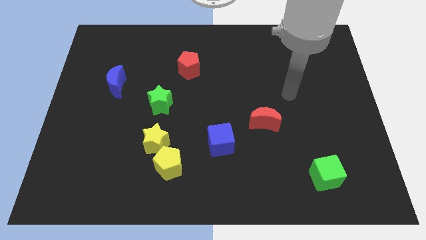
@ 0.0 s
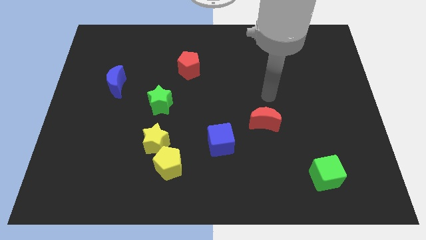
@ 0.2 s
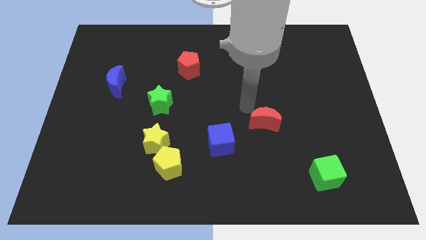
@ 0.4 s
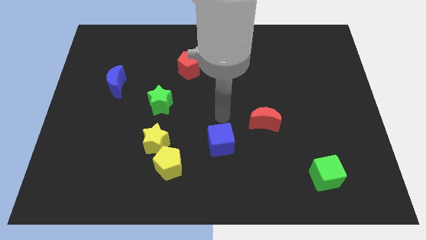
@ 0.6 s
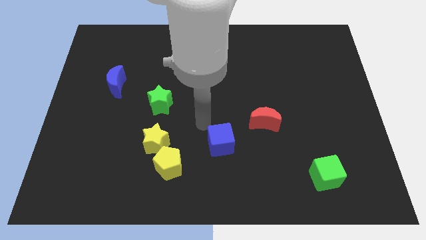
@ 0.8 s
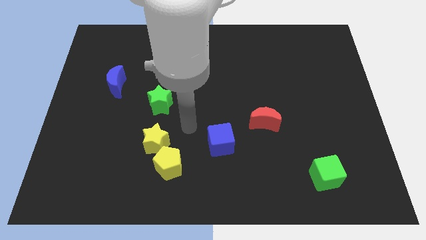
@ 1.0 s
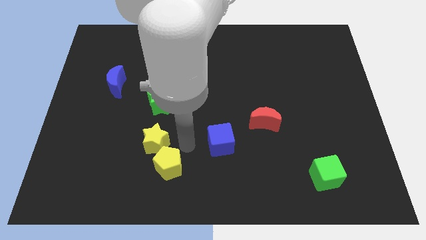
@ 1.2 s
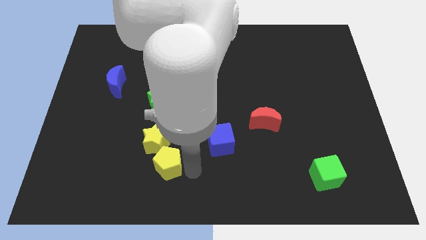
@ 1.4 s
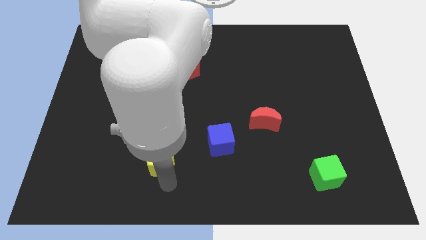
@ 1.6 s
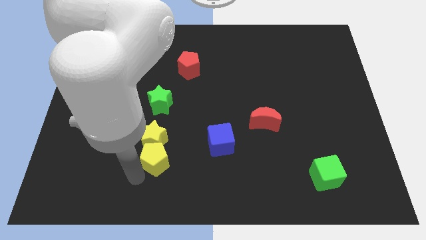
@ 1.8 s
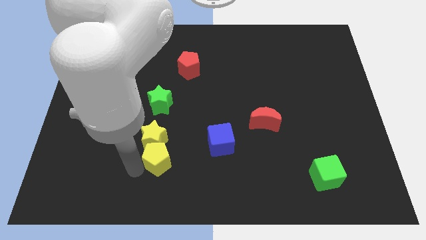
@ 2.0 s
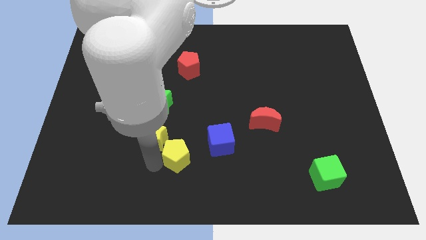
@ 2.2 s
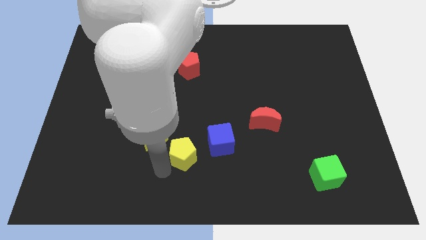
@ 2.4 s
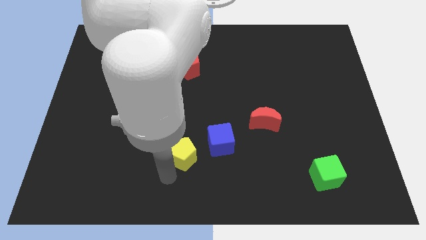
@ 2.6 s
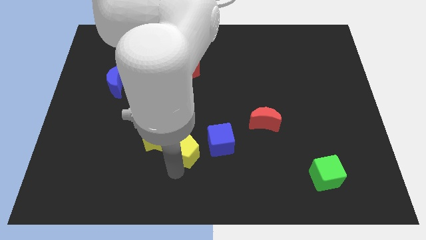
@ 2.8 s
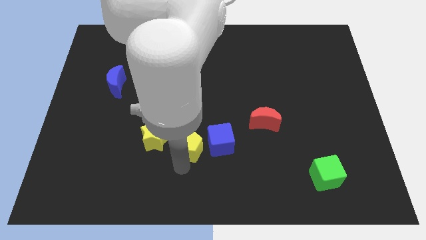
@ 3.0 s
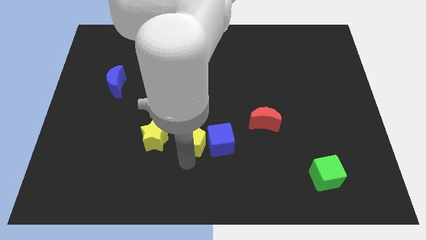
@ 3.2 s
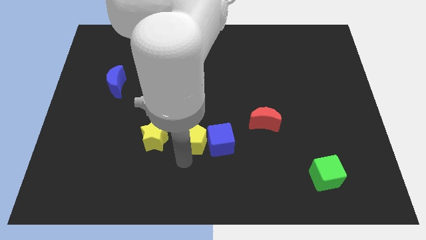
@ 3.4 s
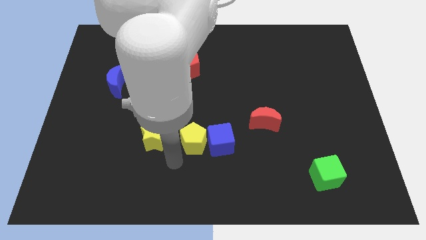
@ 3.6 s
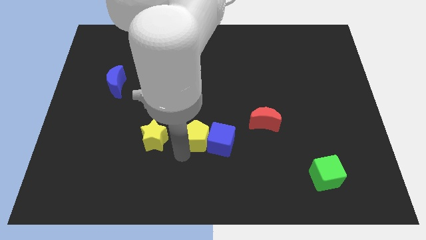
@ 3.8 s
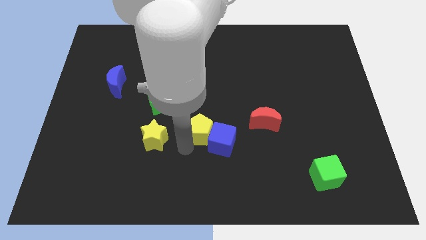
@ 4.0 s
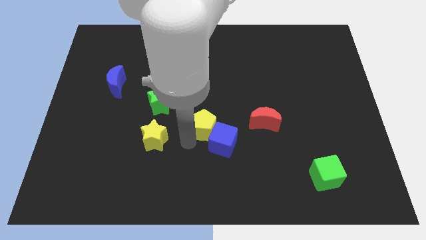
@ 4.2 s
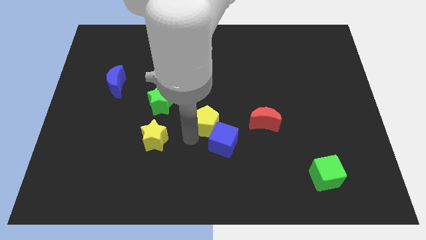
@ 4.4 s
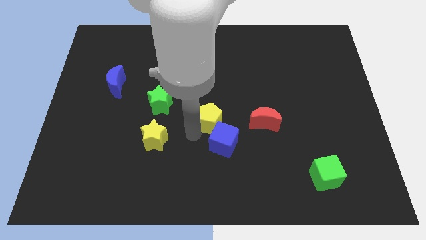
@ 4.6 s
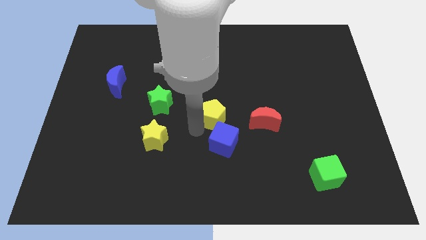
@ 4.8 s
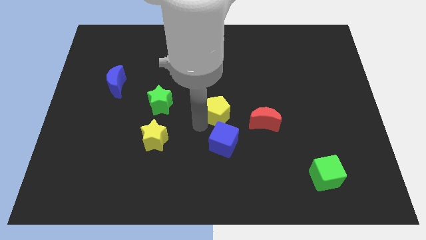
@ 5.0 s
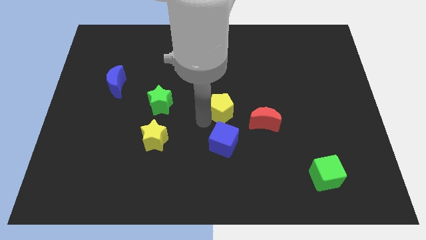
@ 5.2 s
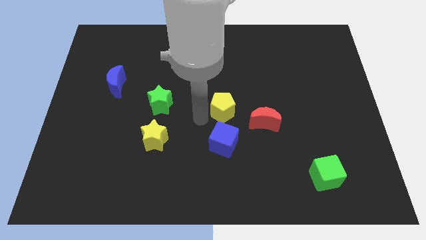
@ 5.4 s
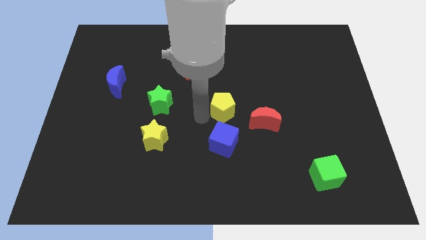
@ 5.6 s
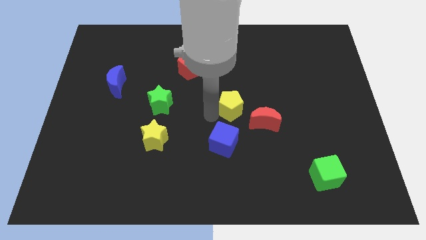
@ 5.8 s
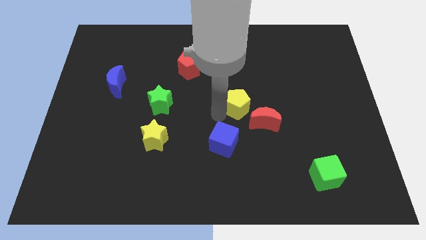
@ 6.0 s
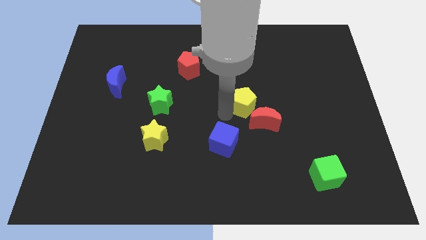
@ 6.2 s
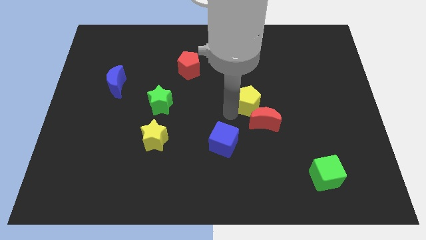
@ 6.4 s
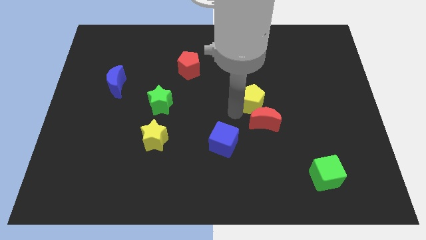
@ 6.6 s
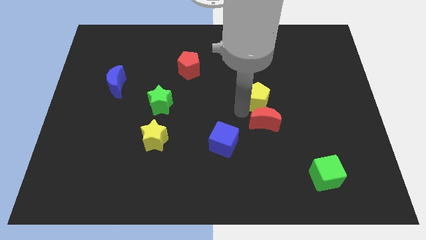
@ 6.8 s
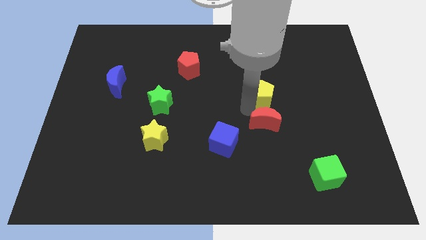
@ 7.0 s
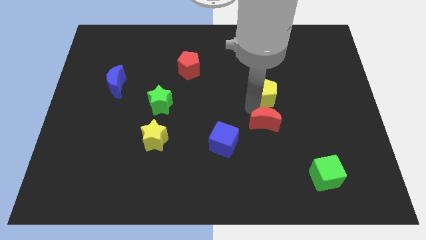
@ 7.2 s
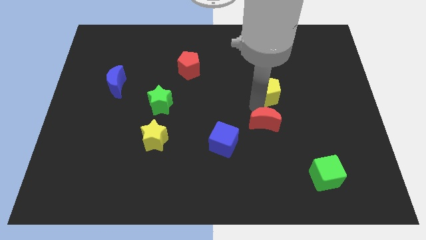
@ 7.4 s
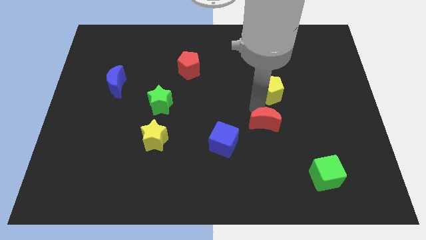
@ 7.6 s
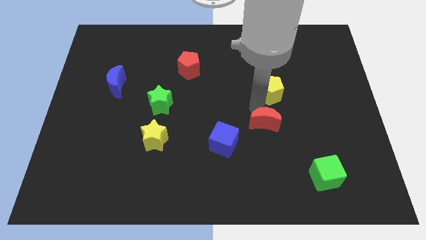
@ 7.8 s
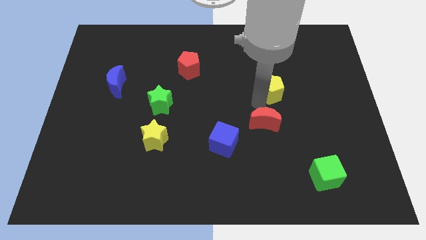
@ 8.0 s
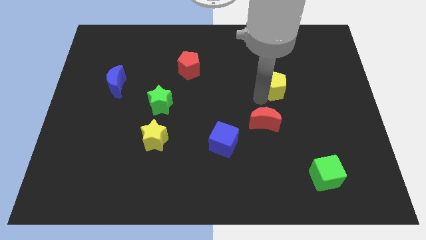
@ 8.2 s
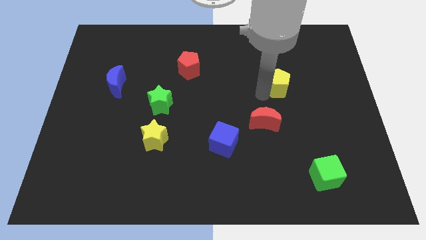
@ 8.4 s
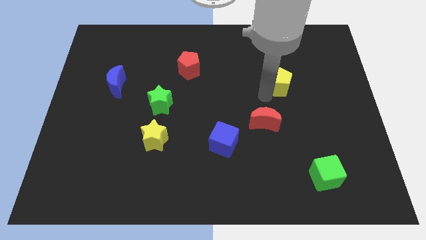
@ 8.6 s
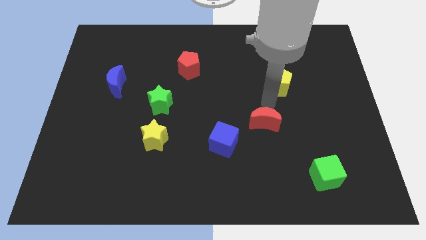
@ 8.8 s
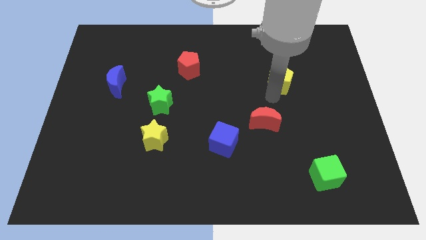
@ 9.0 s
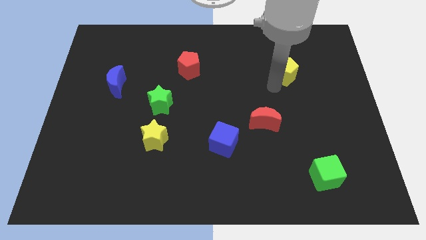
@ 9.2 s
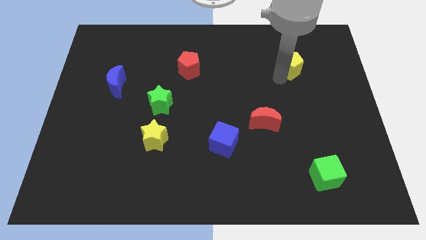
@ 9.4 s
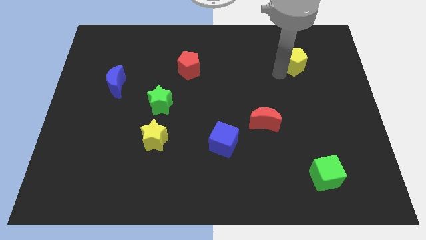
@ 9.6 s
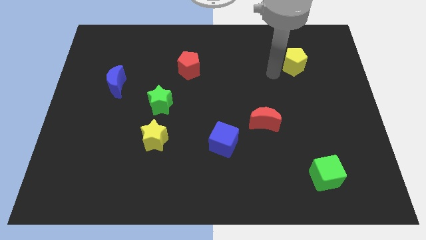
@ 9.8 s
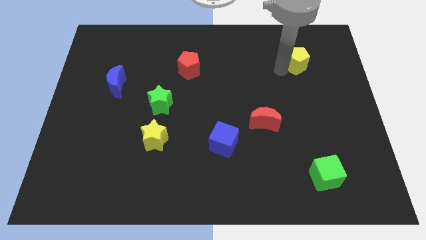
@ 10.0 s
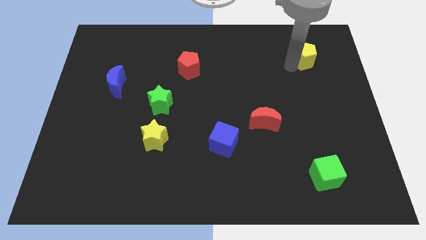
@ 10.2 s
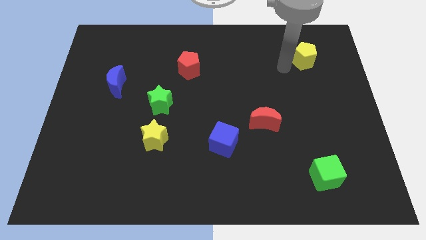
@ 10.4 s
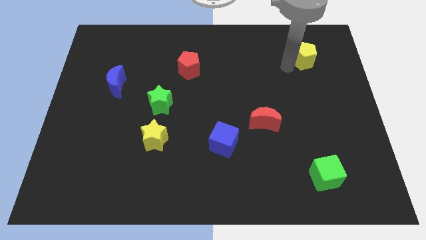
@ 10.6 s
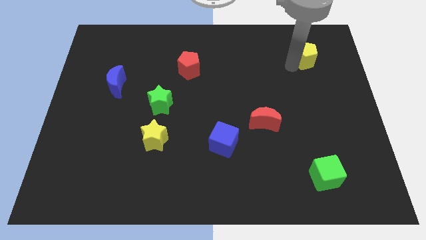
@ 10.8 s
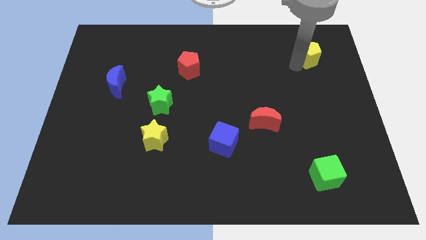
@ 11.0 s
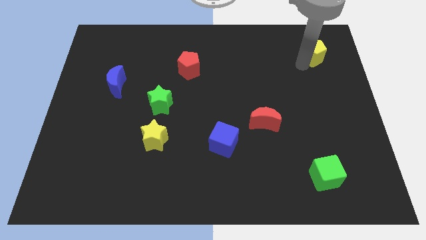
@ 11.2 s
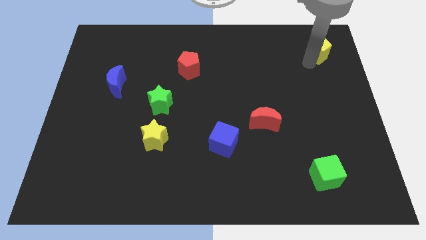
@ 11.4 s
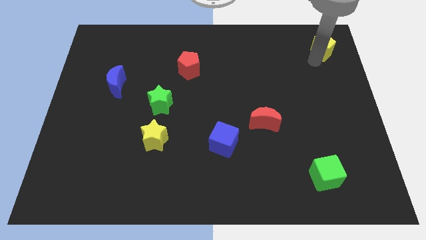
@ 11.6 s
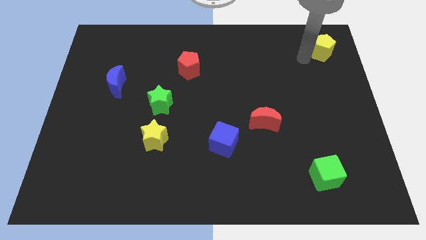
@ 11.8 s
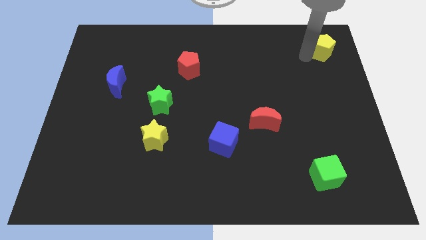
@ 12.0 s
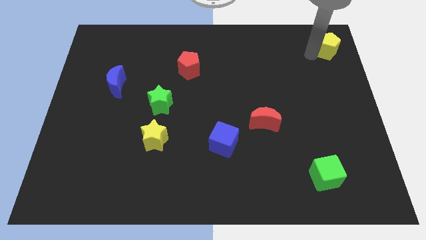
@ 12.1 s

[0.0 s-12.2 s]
slide the yellow pentagon to the top right of the board

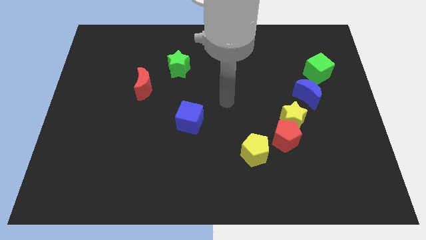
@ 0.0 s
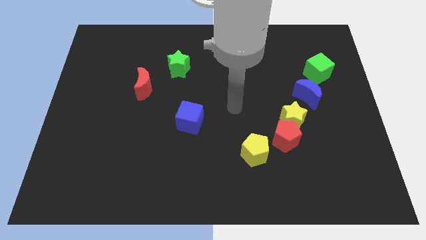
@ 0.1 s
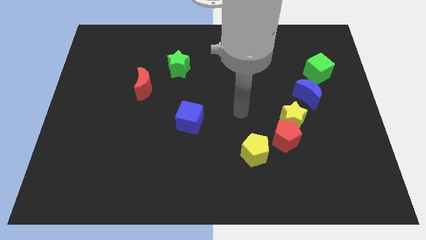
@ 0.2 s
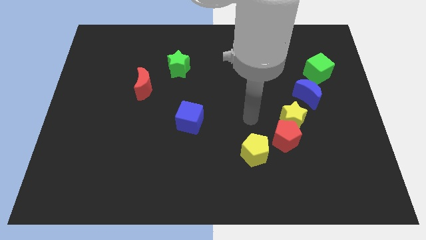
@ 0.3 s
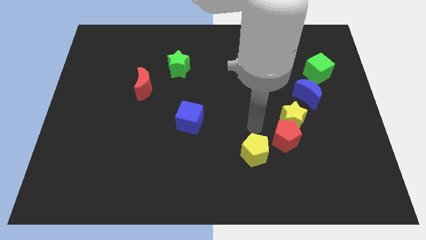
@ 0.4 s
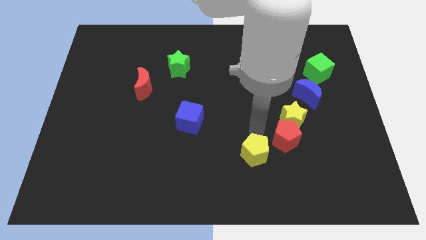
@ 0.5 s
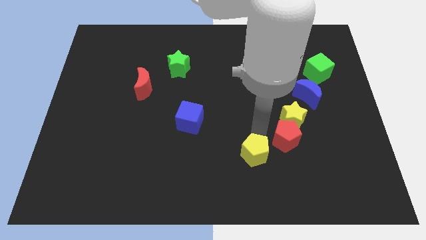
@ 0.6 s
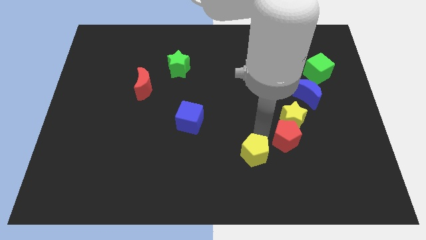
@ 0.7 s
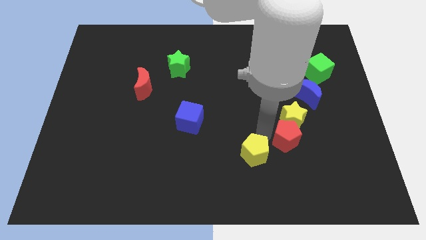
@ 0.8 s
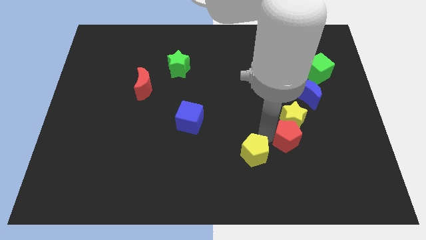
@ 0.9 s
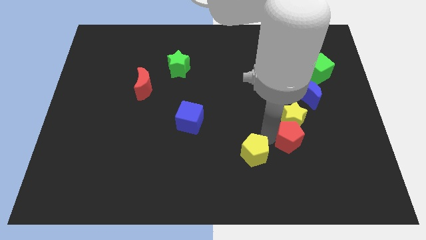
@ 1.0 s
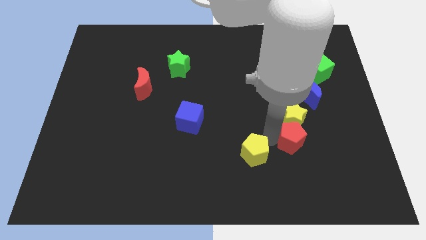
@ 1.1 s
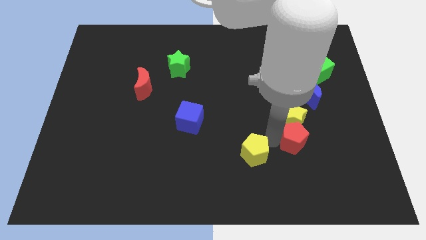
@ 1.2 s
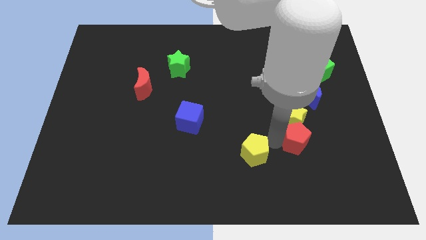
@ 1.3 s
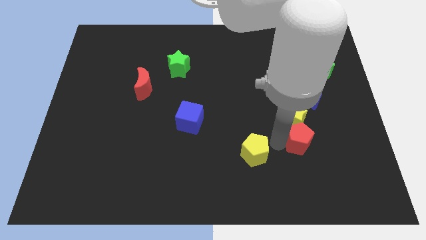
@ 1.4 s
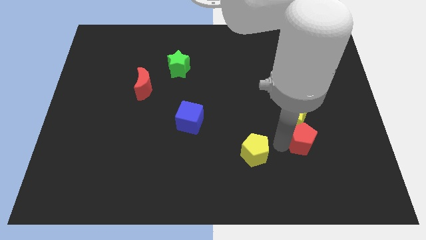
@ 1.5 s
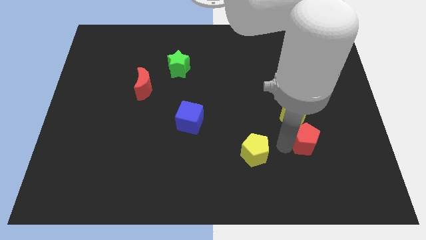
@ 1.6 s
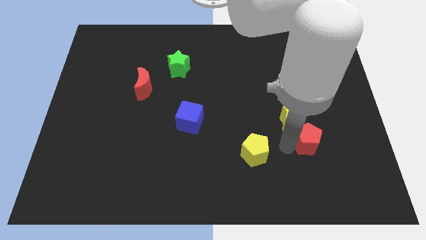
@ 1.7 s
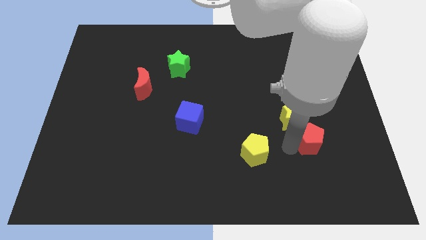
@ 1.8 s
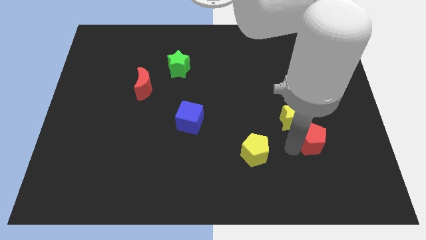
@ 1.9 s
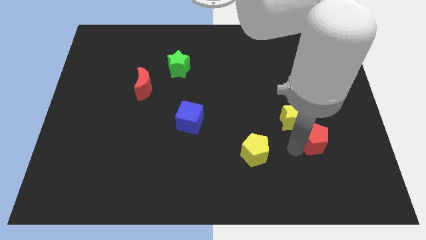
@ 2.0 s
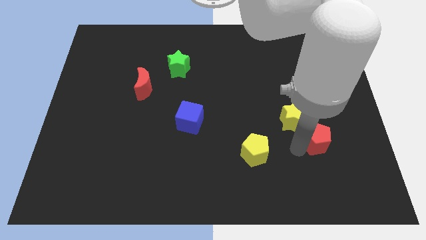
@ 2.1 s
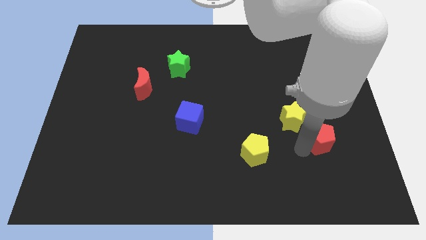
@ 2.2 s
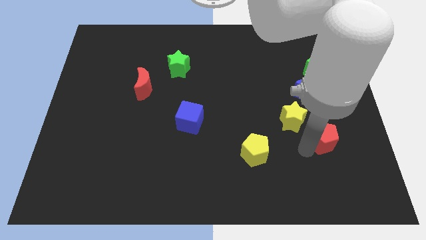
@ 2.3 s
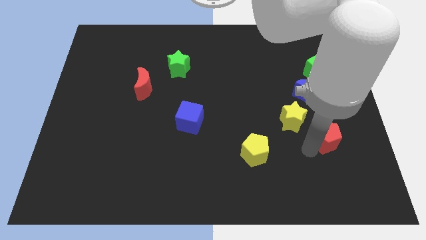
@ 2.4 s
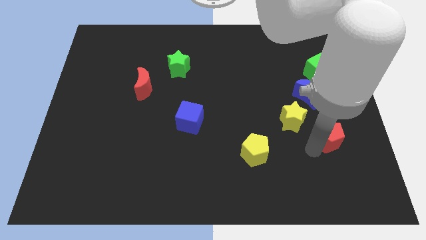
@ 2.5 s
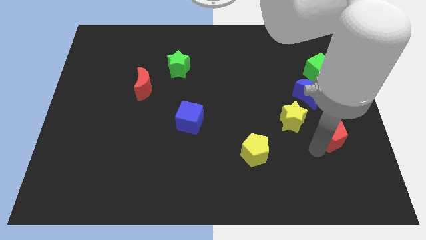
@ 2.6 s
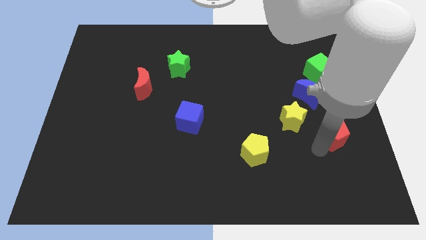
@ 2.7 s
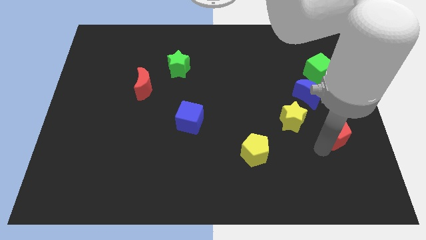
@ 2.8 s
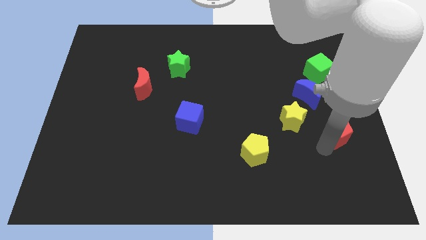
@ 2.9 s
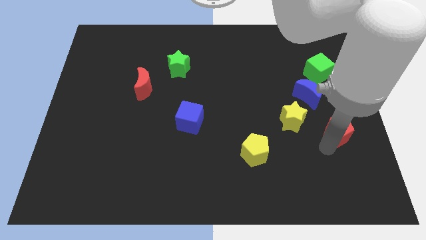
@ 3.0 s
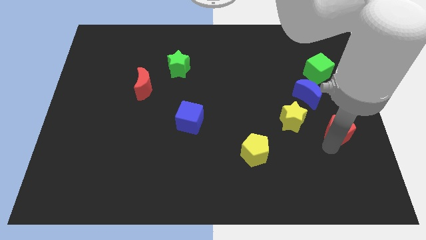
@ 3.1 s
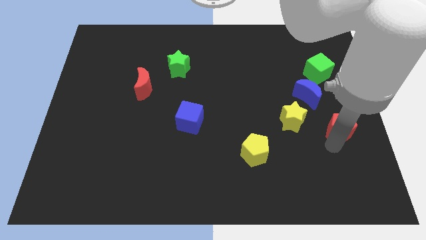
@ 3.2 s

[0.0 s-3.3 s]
move the red pentagon to the right side
